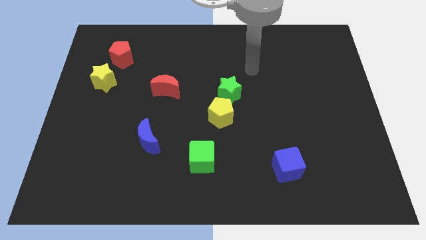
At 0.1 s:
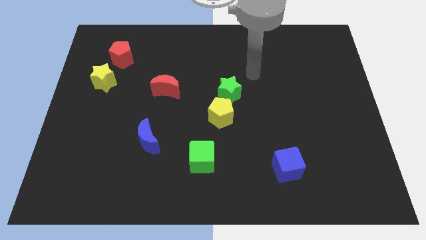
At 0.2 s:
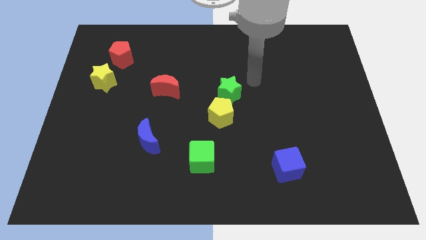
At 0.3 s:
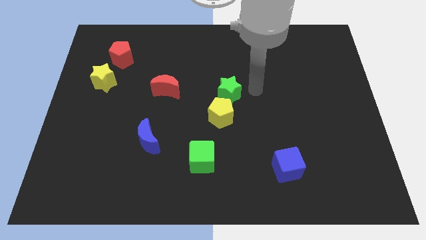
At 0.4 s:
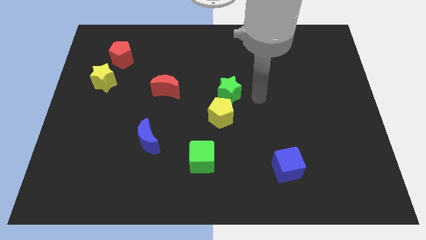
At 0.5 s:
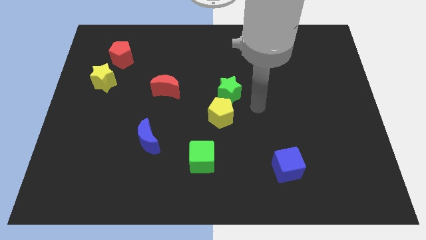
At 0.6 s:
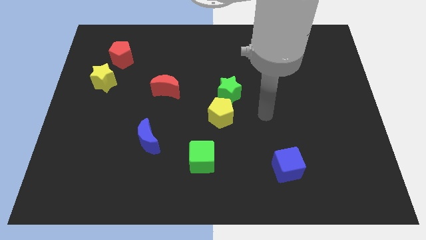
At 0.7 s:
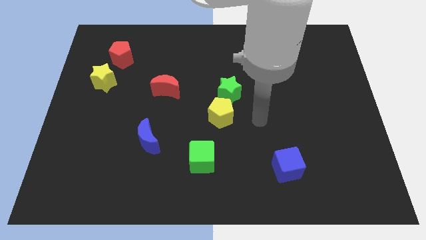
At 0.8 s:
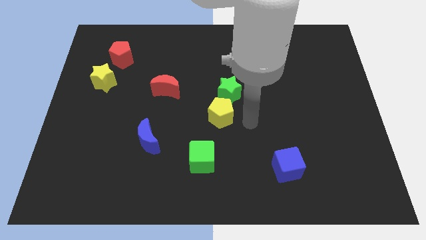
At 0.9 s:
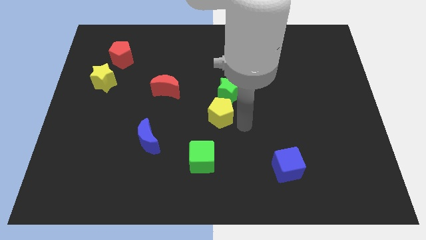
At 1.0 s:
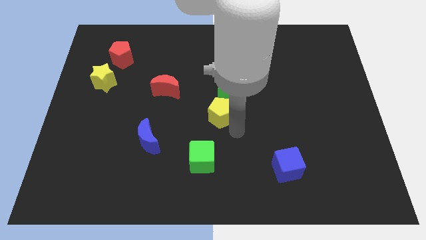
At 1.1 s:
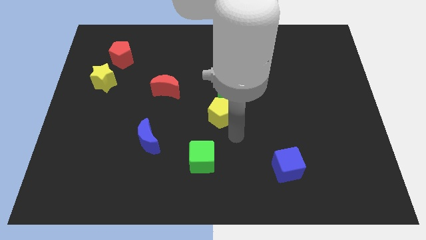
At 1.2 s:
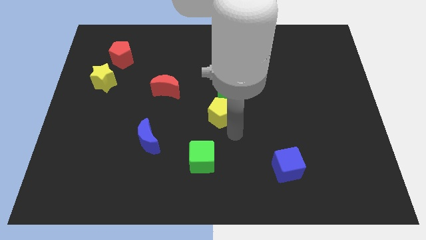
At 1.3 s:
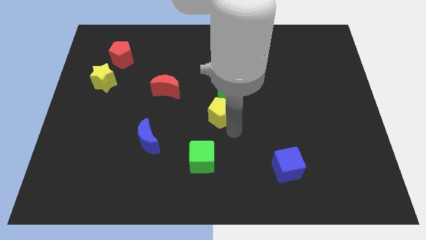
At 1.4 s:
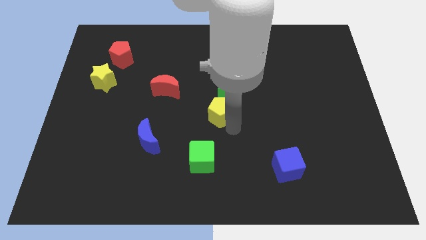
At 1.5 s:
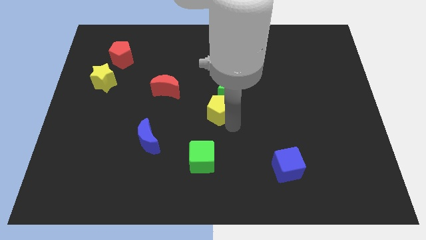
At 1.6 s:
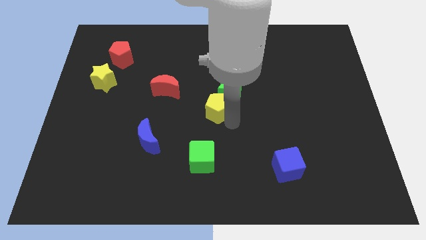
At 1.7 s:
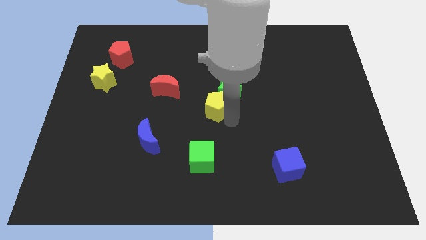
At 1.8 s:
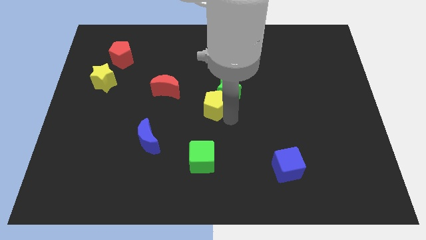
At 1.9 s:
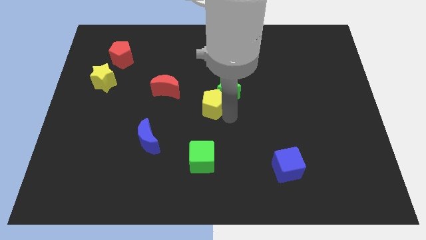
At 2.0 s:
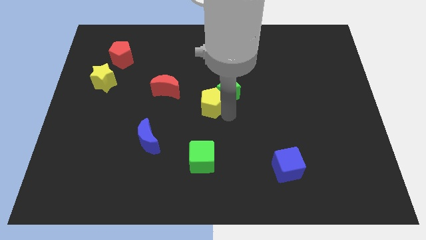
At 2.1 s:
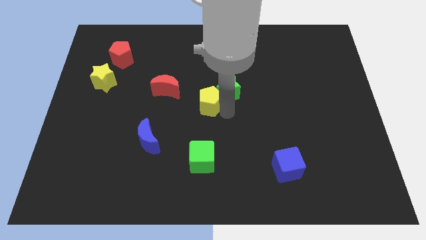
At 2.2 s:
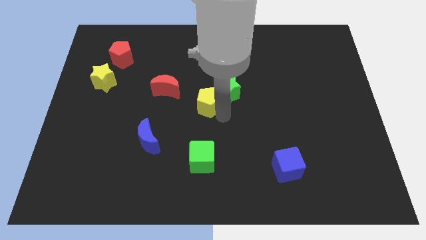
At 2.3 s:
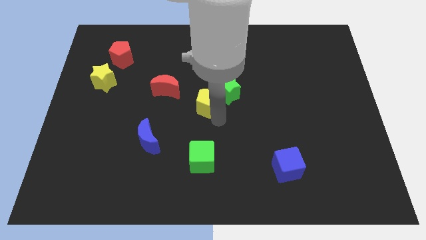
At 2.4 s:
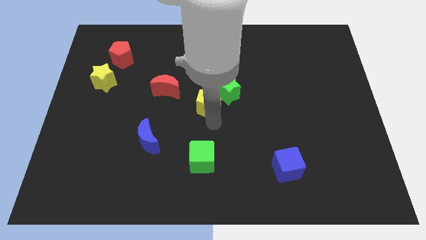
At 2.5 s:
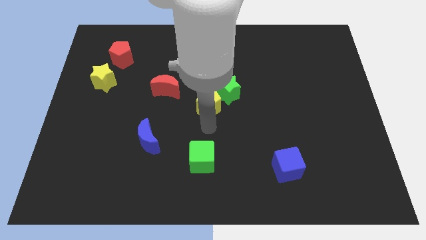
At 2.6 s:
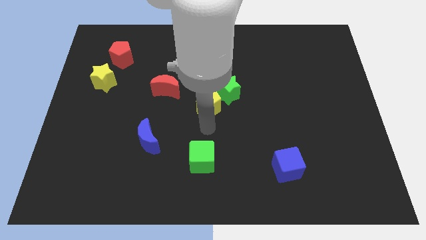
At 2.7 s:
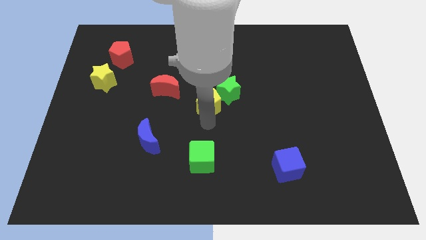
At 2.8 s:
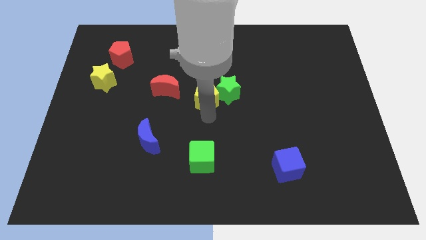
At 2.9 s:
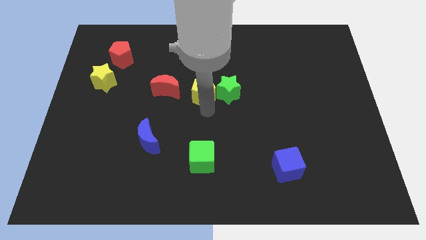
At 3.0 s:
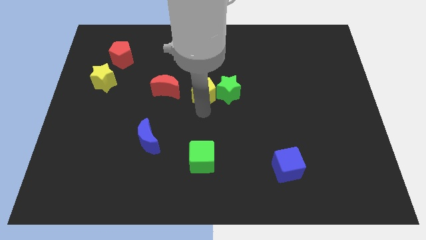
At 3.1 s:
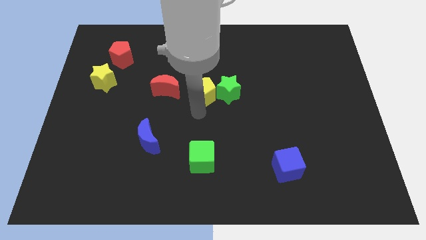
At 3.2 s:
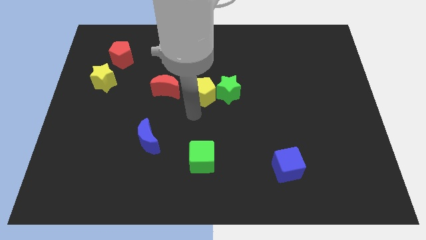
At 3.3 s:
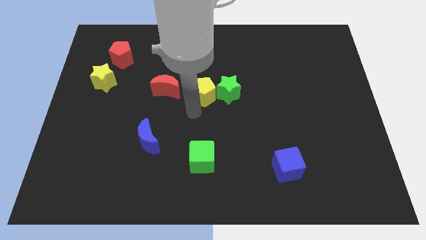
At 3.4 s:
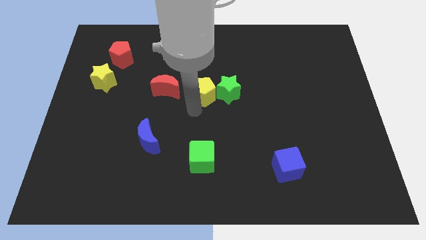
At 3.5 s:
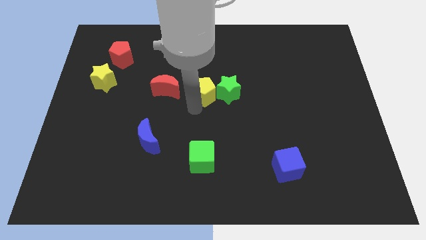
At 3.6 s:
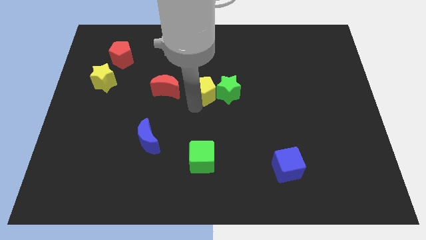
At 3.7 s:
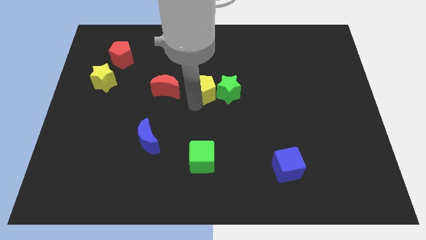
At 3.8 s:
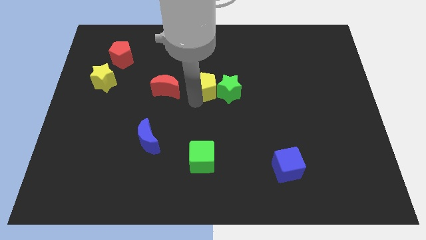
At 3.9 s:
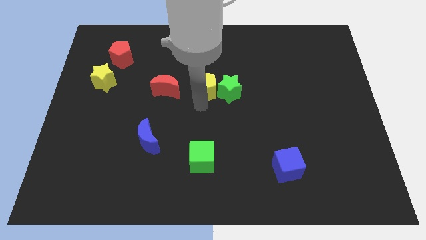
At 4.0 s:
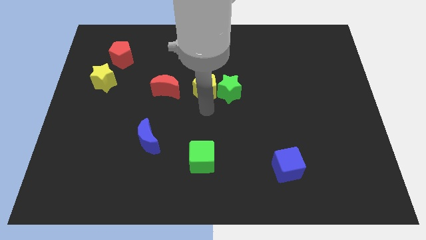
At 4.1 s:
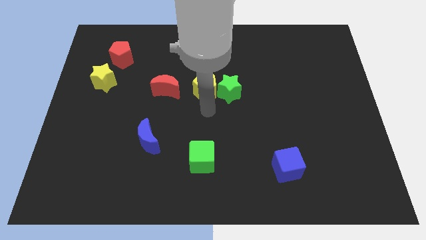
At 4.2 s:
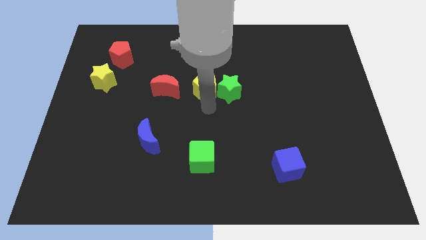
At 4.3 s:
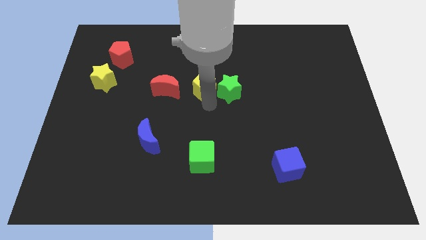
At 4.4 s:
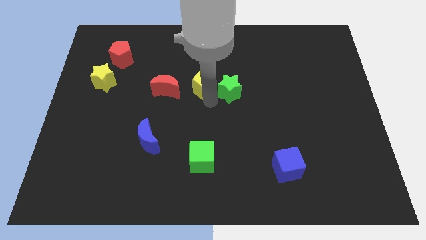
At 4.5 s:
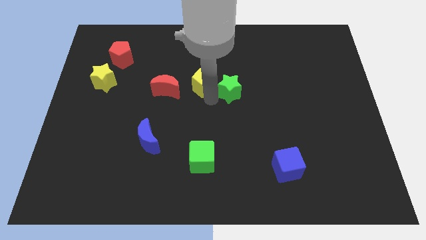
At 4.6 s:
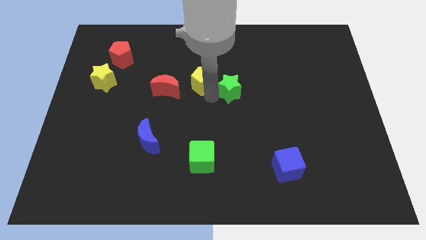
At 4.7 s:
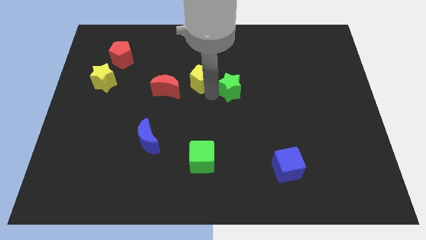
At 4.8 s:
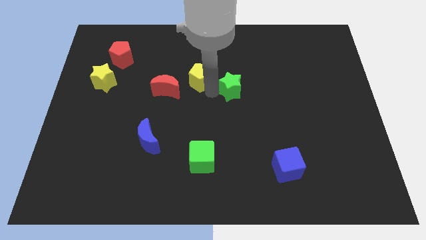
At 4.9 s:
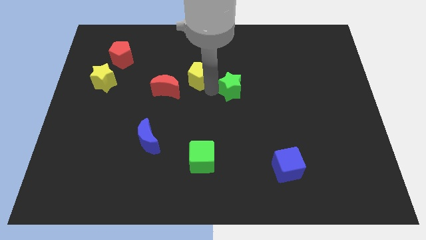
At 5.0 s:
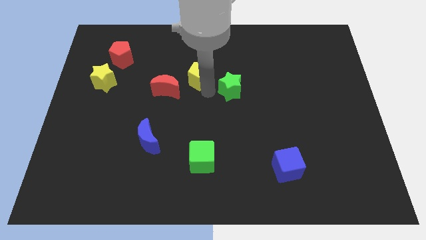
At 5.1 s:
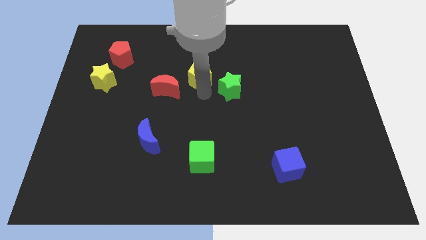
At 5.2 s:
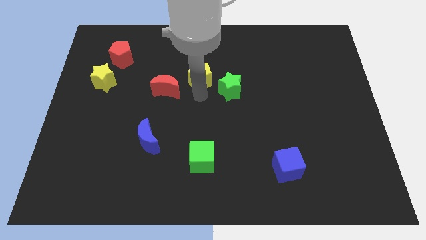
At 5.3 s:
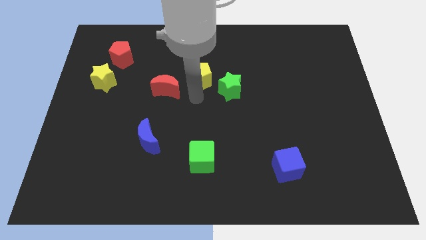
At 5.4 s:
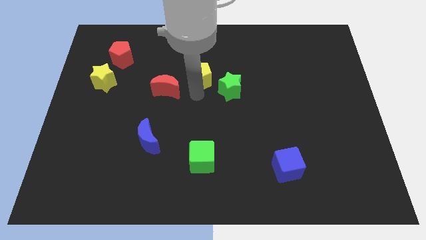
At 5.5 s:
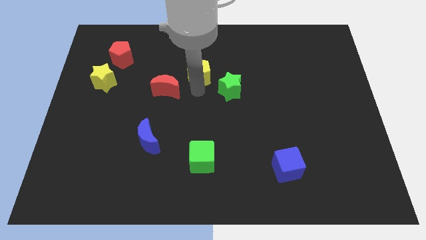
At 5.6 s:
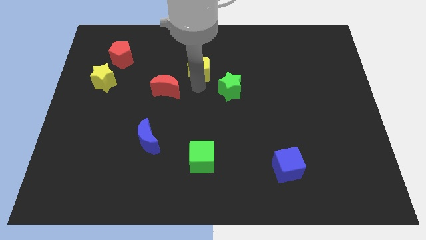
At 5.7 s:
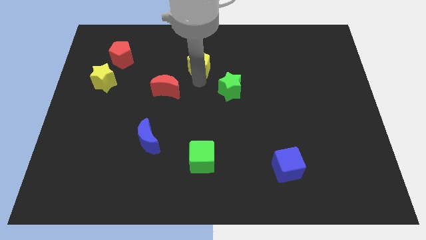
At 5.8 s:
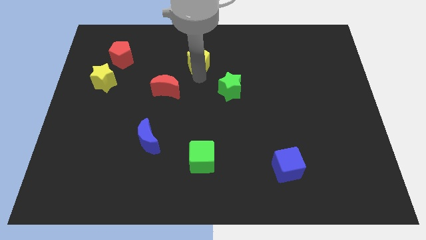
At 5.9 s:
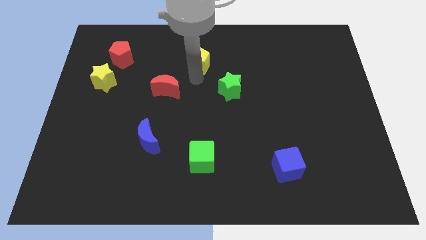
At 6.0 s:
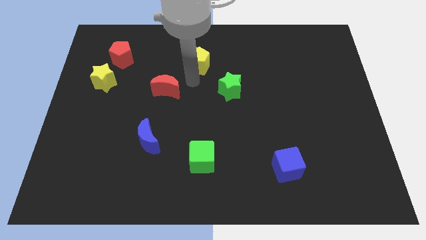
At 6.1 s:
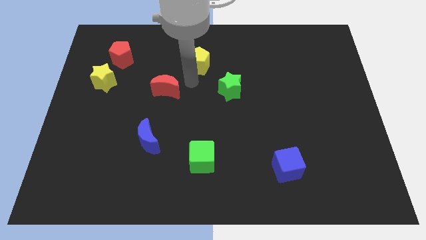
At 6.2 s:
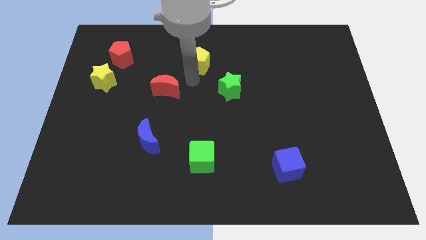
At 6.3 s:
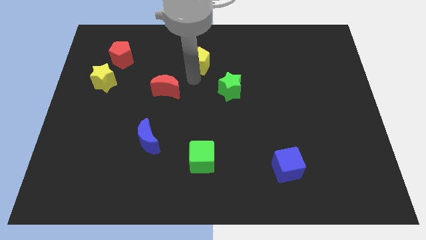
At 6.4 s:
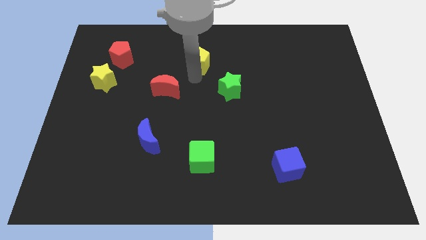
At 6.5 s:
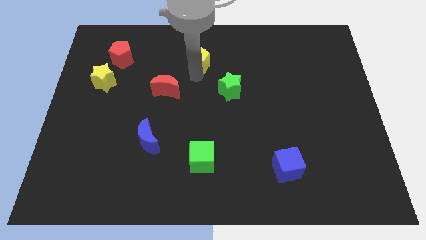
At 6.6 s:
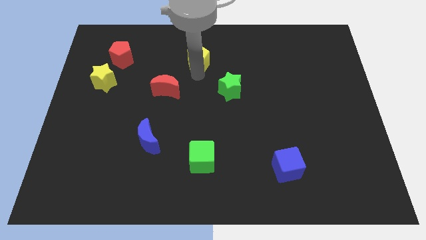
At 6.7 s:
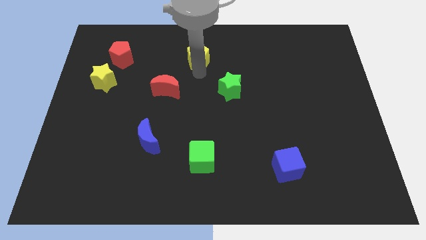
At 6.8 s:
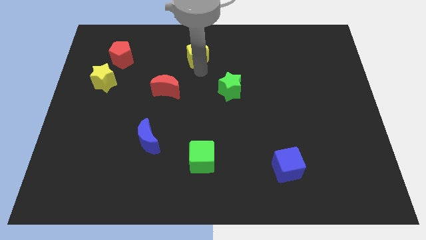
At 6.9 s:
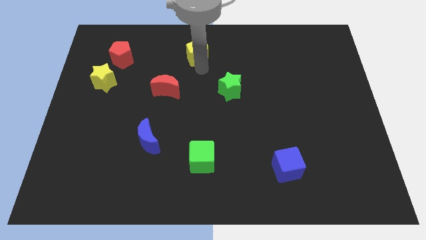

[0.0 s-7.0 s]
put the yellow pentagon to the towards your base
